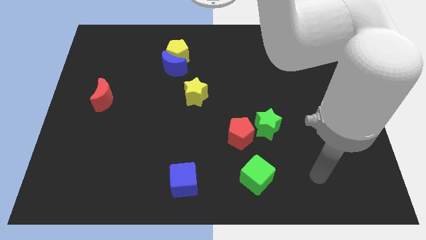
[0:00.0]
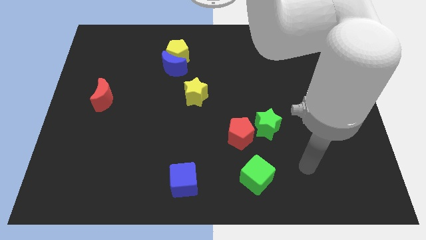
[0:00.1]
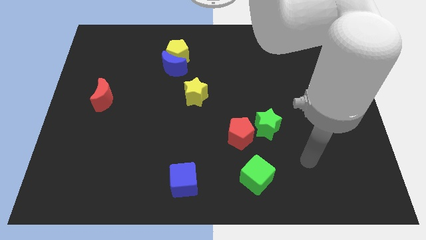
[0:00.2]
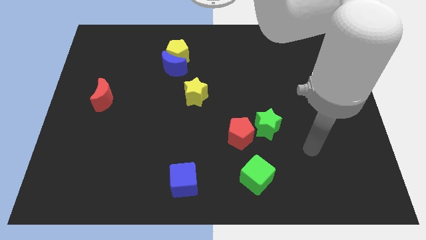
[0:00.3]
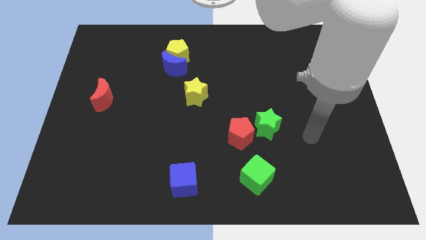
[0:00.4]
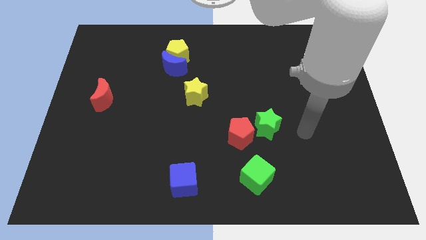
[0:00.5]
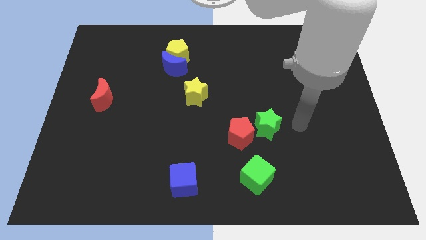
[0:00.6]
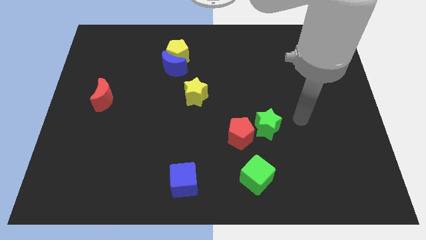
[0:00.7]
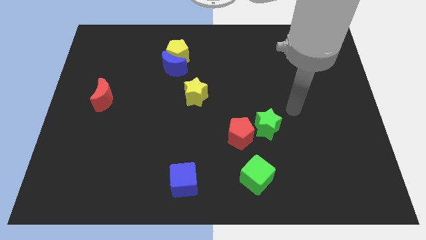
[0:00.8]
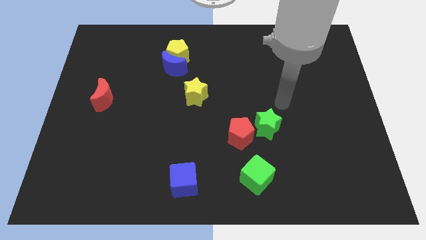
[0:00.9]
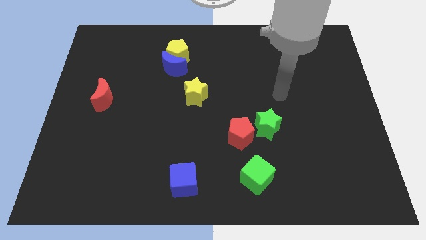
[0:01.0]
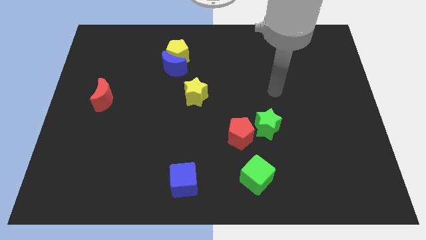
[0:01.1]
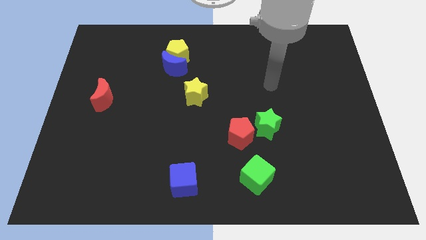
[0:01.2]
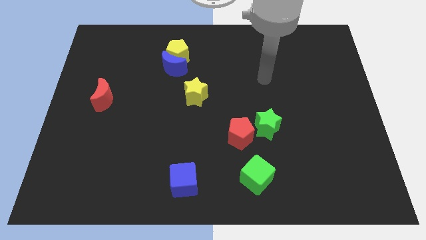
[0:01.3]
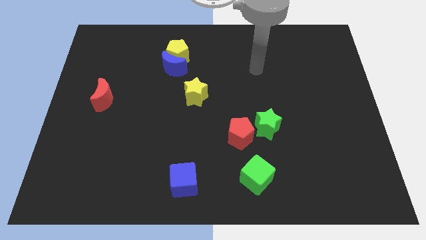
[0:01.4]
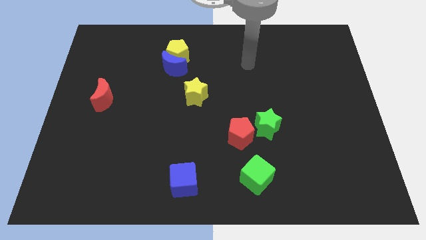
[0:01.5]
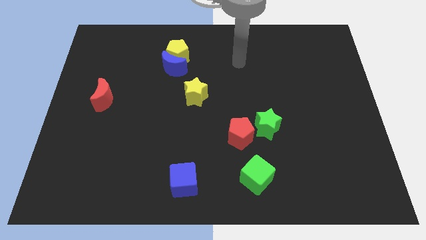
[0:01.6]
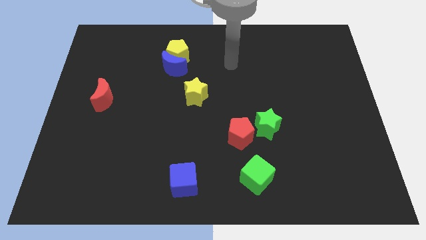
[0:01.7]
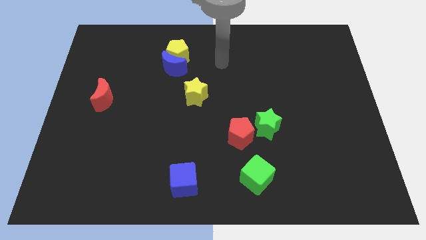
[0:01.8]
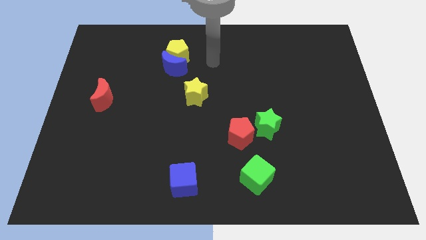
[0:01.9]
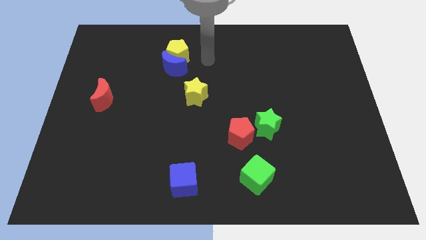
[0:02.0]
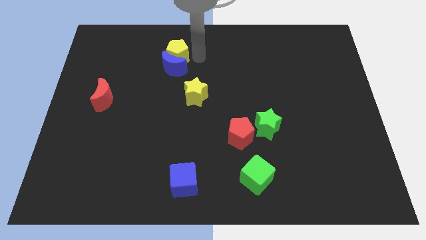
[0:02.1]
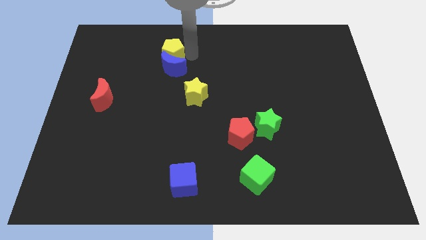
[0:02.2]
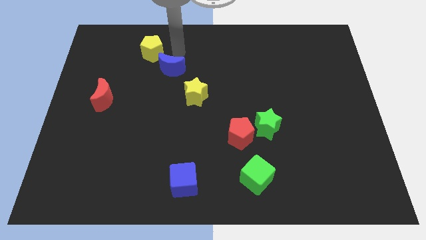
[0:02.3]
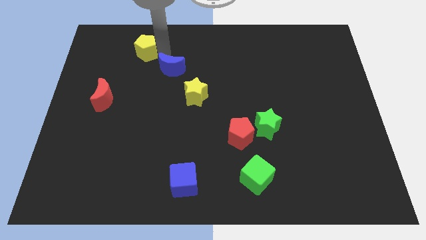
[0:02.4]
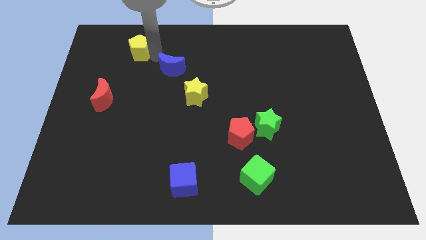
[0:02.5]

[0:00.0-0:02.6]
separate the blue moon from the yellow pentagon

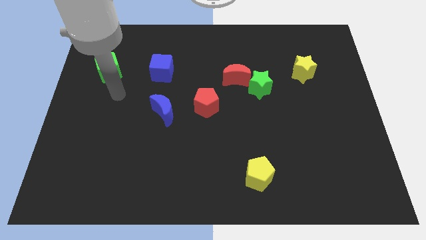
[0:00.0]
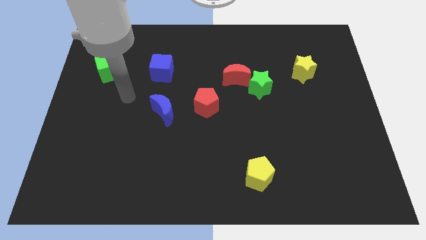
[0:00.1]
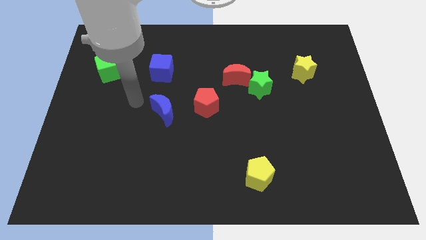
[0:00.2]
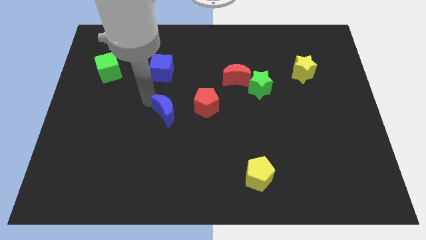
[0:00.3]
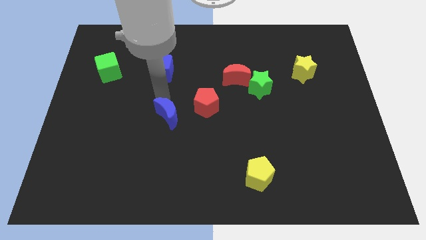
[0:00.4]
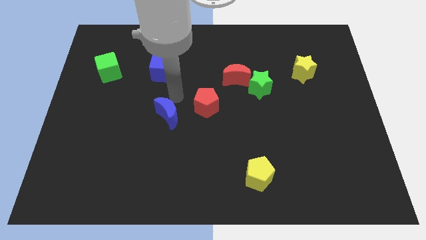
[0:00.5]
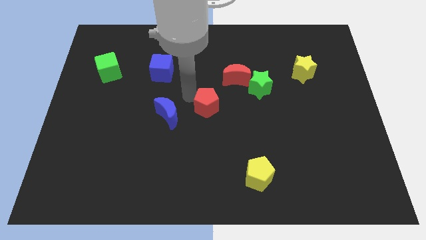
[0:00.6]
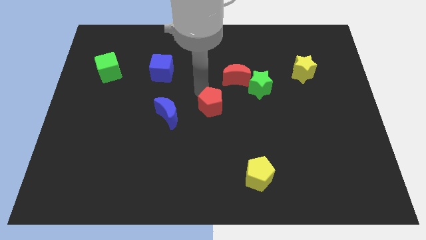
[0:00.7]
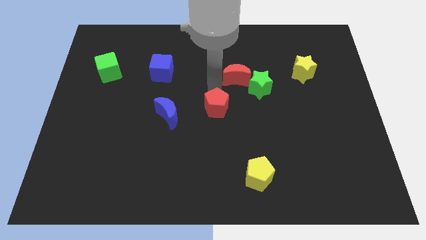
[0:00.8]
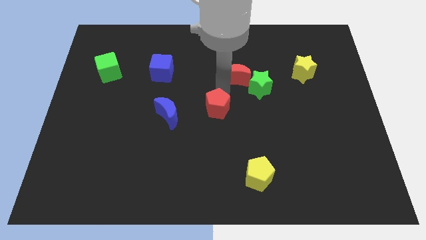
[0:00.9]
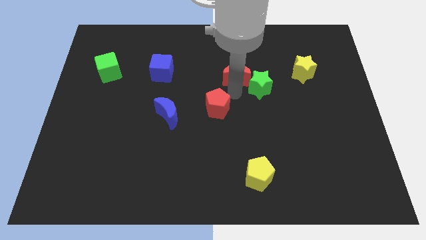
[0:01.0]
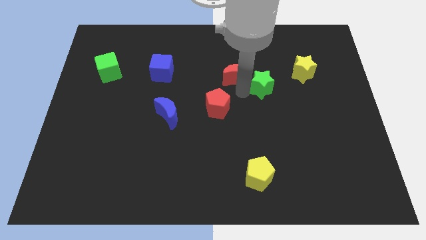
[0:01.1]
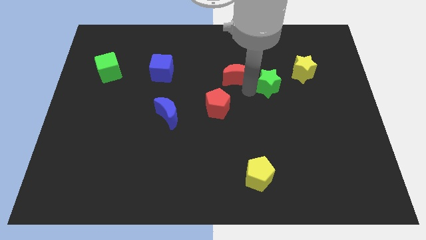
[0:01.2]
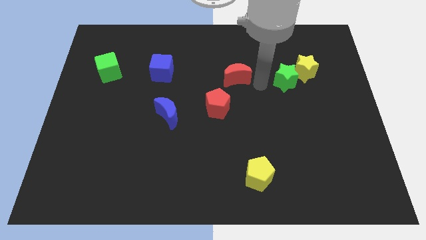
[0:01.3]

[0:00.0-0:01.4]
separate the red moon from the green star

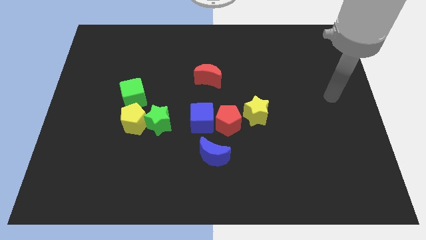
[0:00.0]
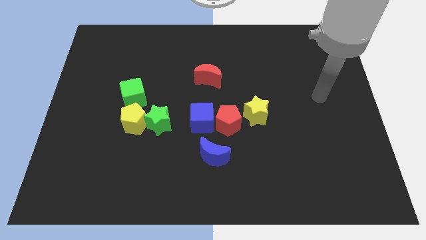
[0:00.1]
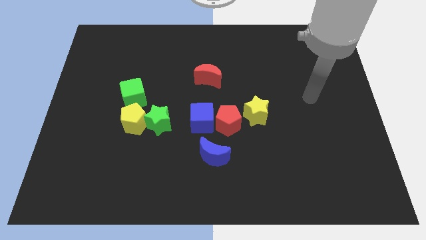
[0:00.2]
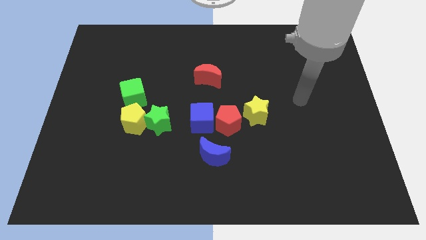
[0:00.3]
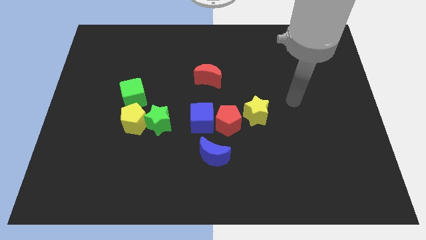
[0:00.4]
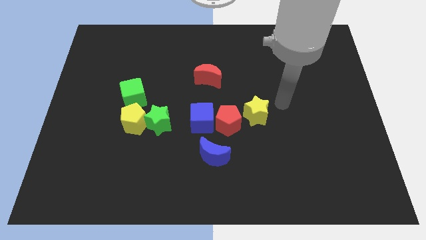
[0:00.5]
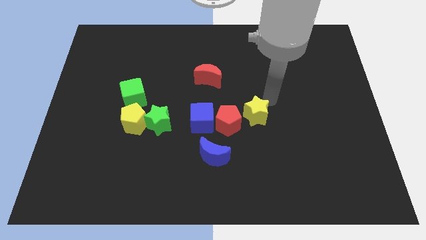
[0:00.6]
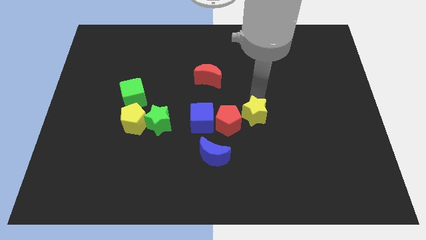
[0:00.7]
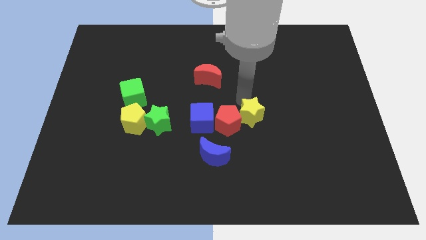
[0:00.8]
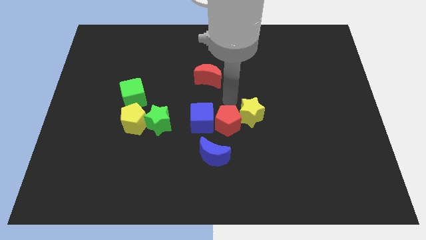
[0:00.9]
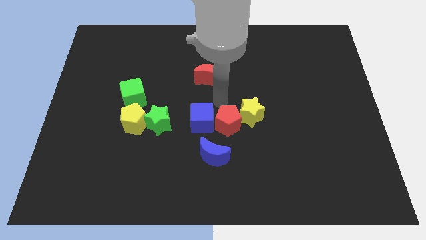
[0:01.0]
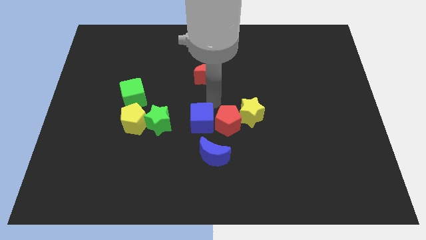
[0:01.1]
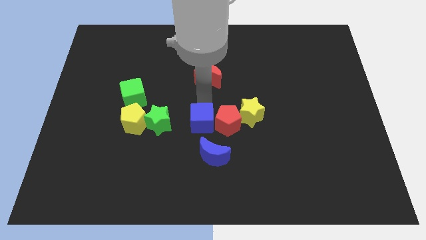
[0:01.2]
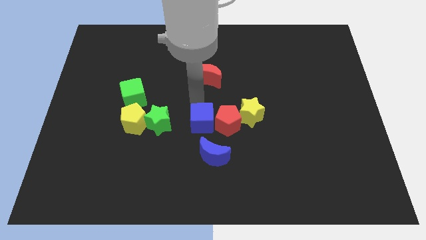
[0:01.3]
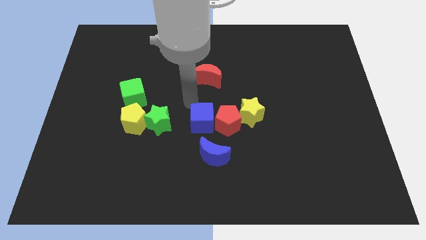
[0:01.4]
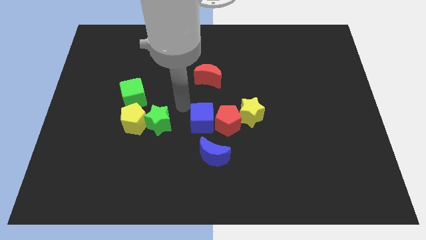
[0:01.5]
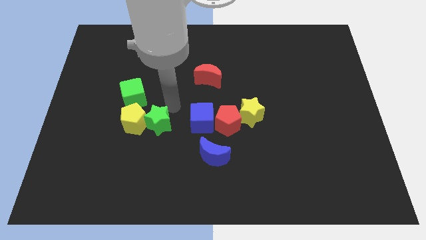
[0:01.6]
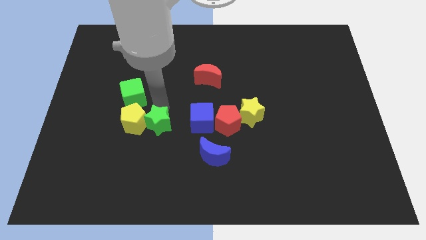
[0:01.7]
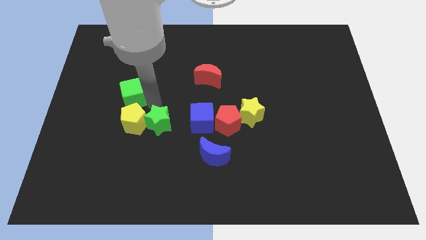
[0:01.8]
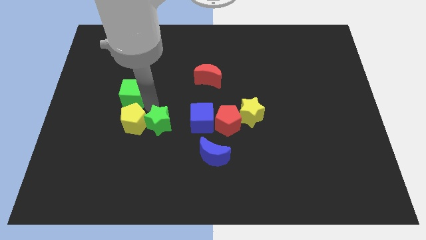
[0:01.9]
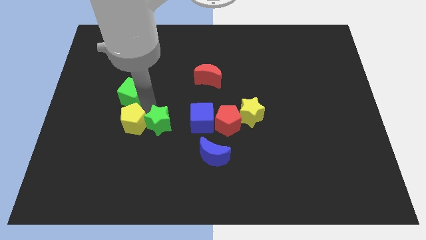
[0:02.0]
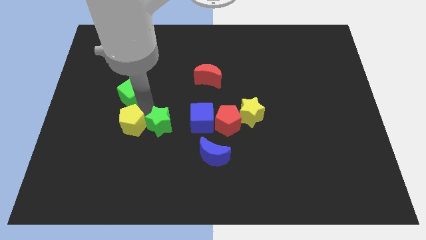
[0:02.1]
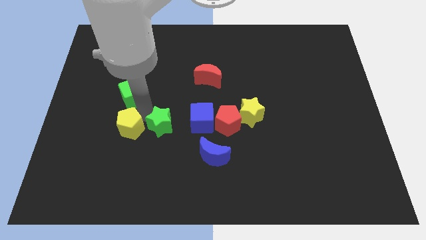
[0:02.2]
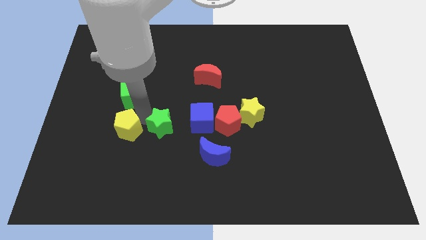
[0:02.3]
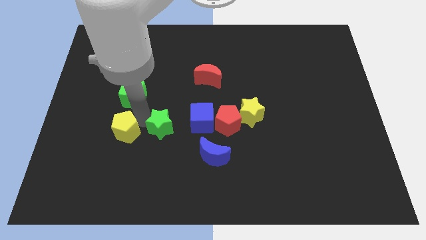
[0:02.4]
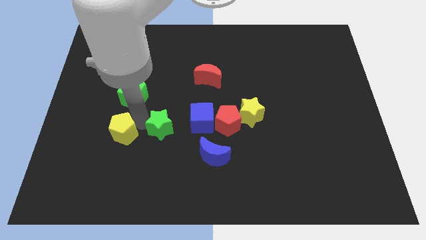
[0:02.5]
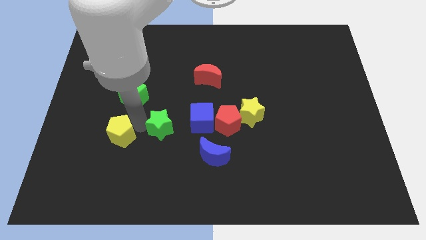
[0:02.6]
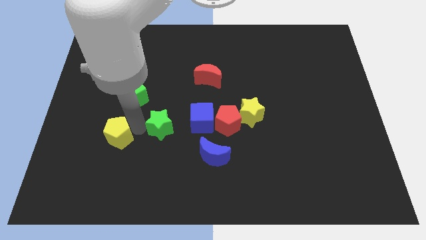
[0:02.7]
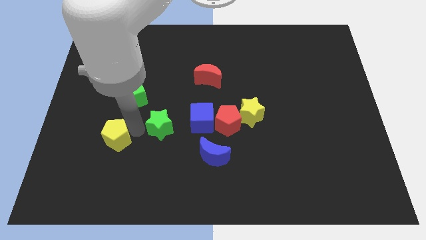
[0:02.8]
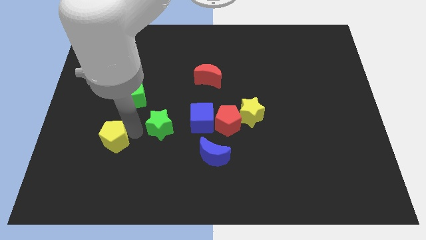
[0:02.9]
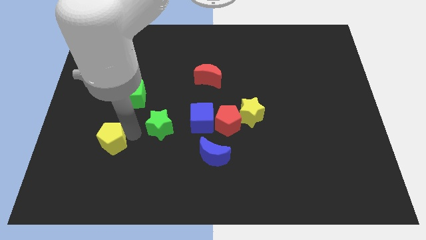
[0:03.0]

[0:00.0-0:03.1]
separate the yellow pentagon from the green star and green cube

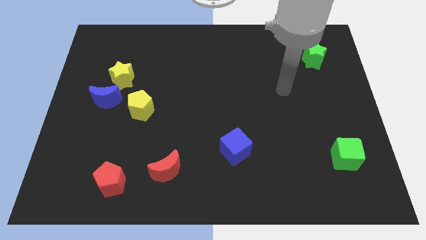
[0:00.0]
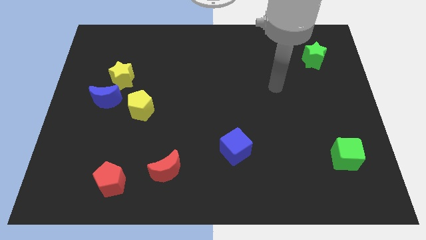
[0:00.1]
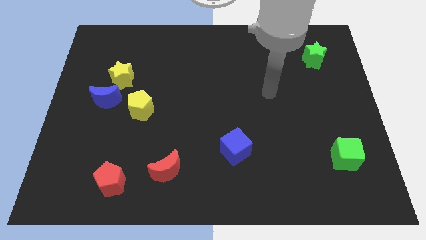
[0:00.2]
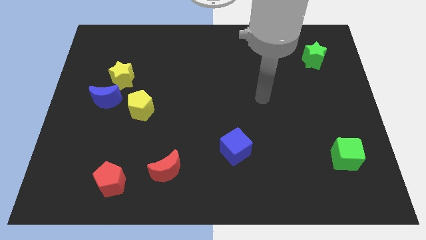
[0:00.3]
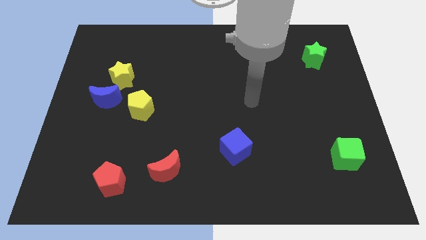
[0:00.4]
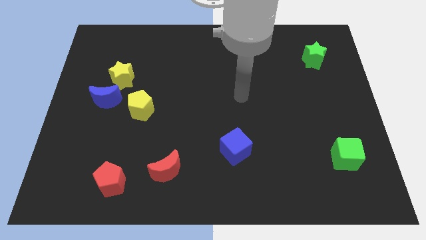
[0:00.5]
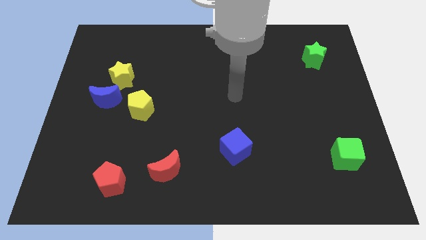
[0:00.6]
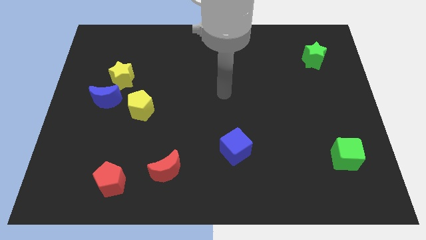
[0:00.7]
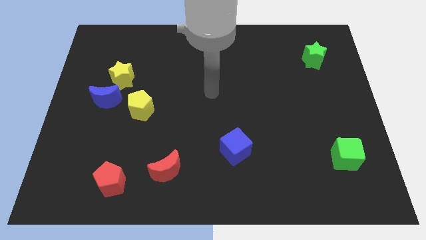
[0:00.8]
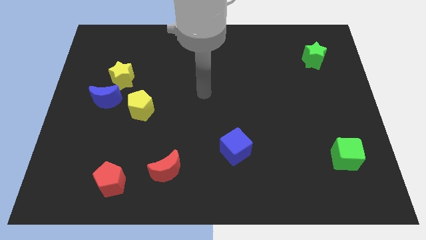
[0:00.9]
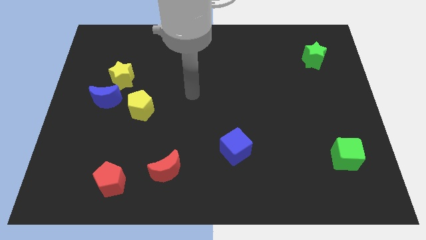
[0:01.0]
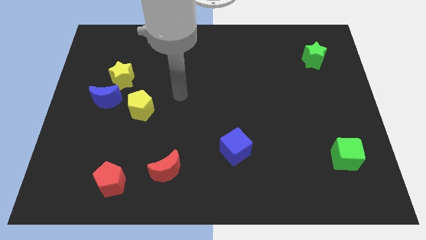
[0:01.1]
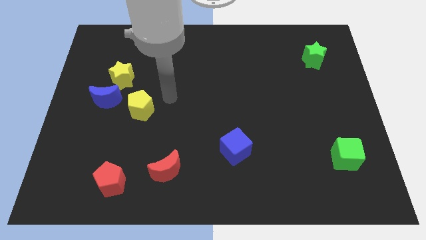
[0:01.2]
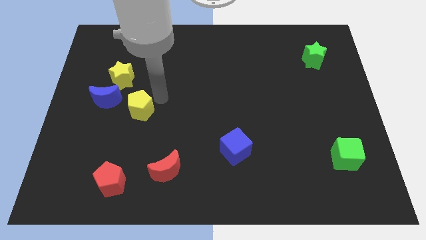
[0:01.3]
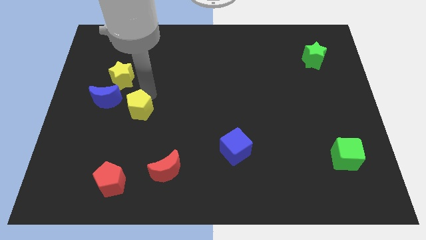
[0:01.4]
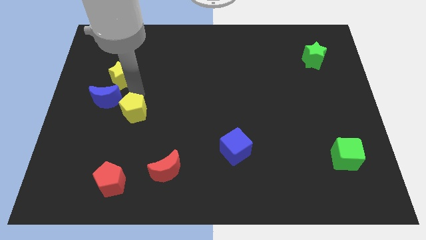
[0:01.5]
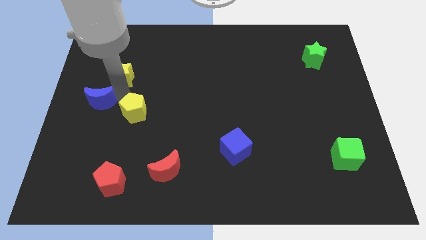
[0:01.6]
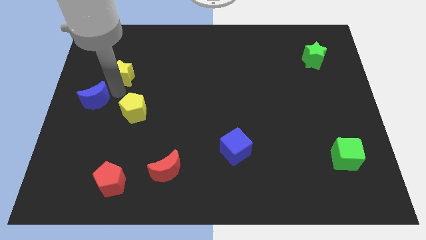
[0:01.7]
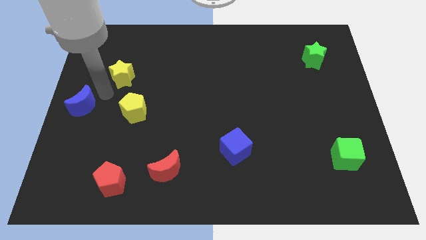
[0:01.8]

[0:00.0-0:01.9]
separate the yellow star from the blue moon

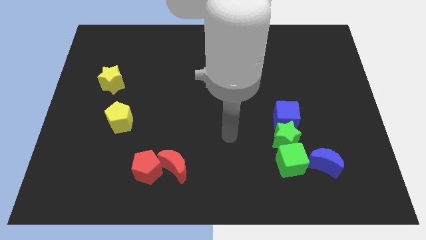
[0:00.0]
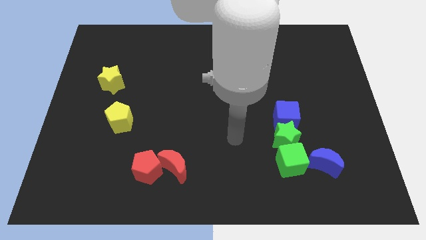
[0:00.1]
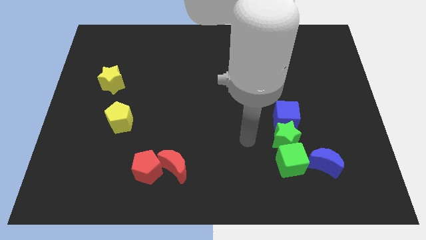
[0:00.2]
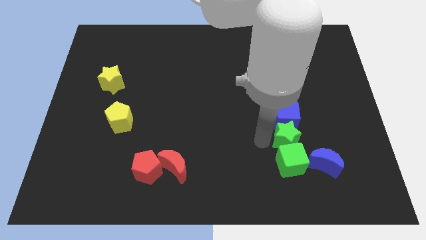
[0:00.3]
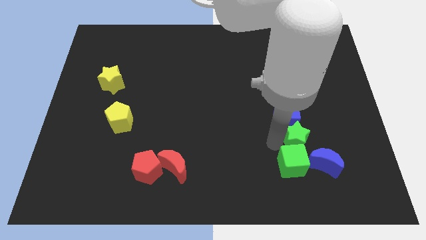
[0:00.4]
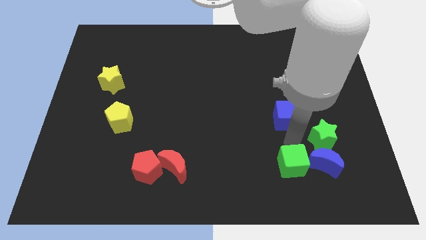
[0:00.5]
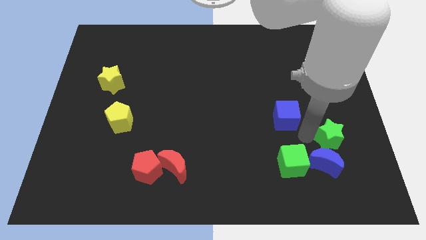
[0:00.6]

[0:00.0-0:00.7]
separate the blue cube from the green star
